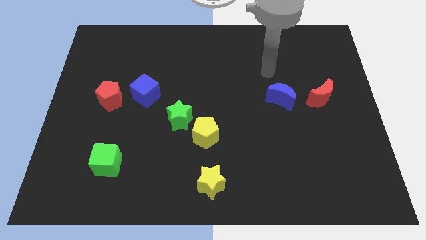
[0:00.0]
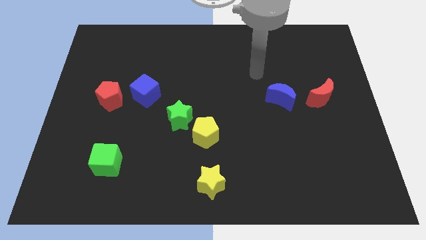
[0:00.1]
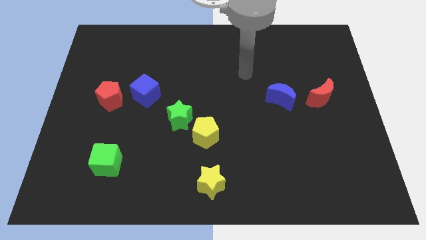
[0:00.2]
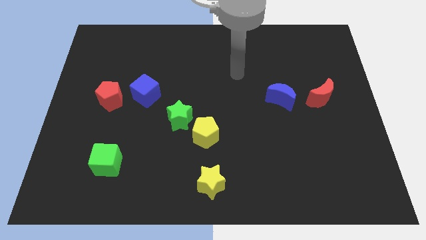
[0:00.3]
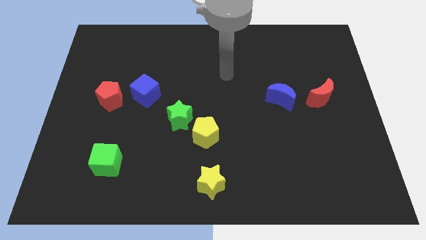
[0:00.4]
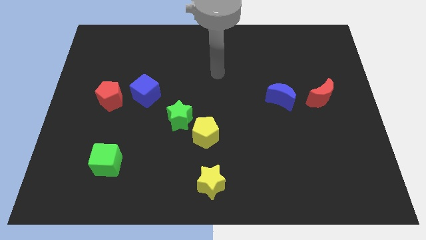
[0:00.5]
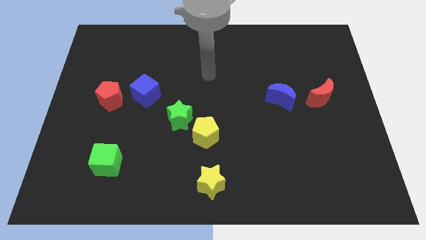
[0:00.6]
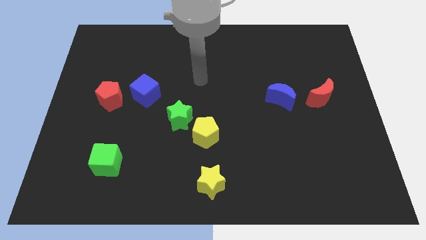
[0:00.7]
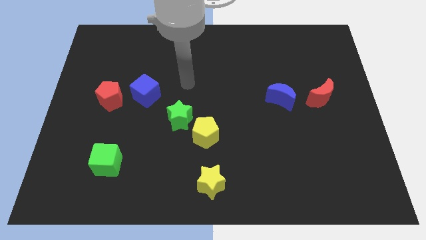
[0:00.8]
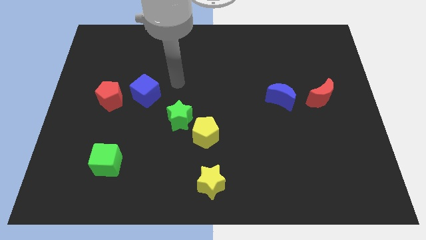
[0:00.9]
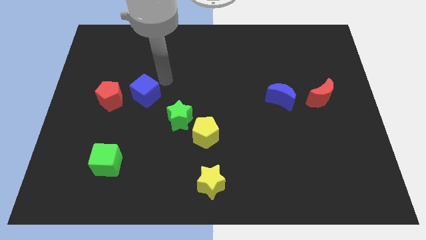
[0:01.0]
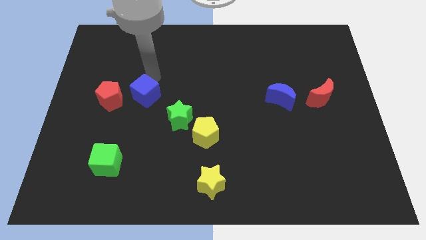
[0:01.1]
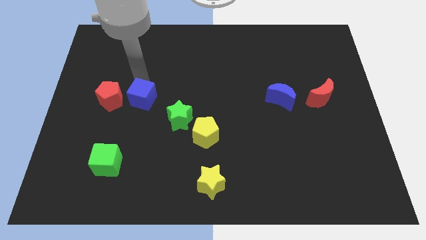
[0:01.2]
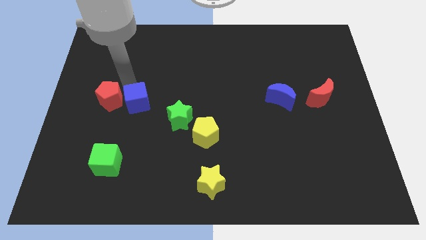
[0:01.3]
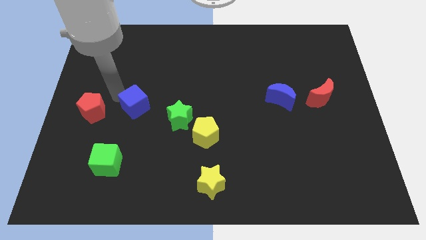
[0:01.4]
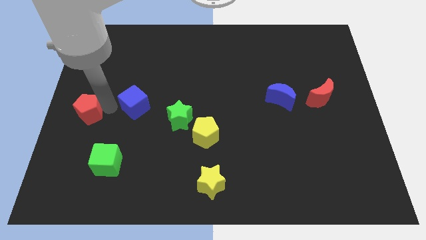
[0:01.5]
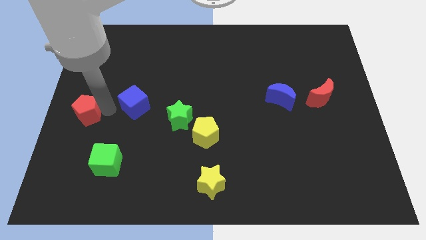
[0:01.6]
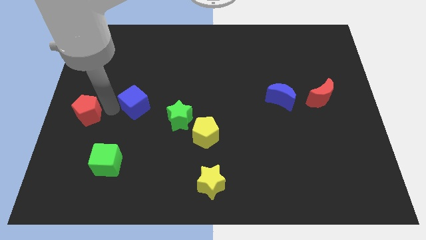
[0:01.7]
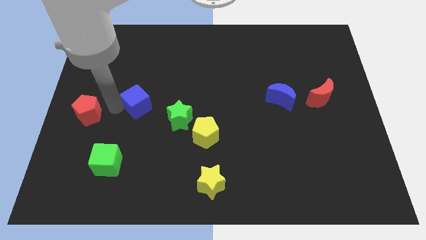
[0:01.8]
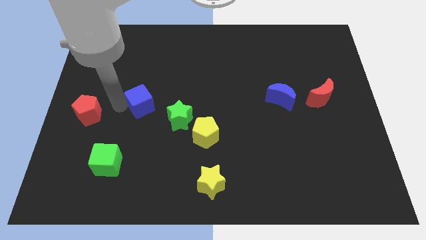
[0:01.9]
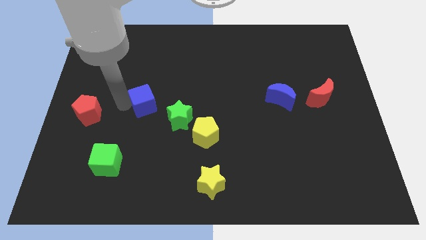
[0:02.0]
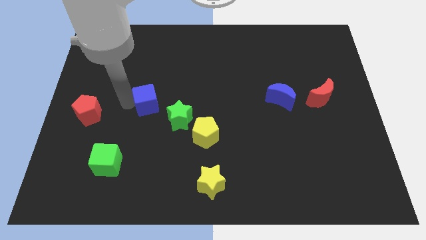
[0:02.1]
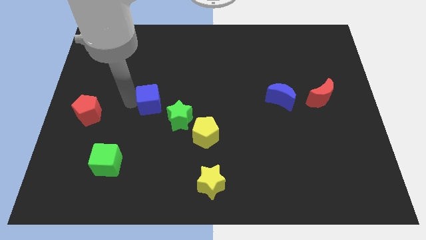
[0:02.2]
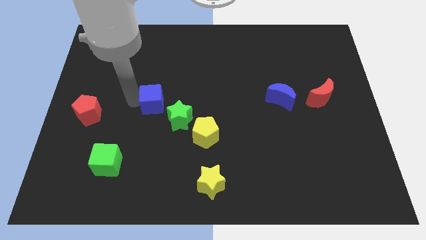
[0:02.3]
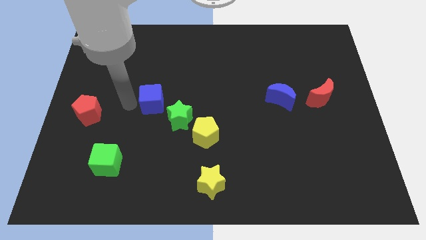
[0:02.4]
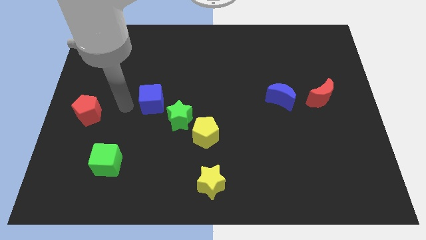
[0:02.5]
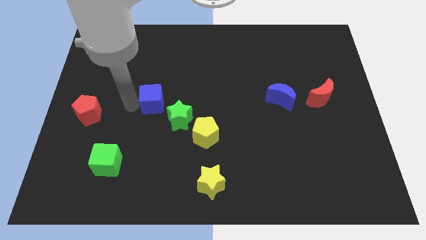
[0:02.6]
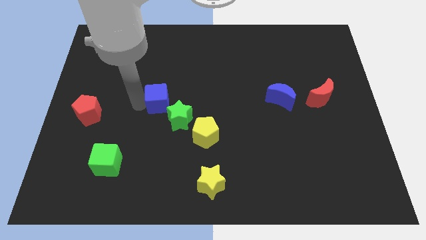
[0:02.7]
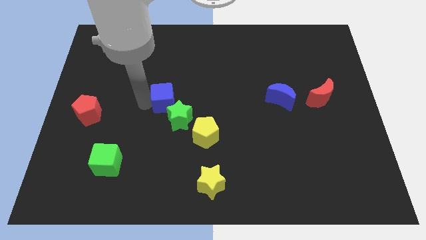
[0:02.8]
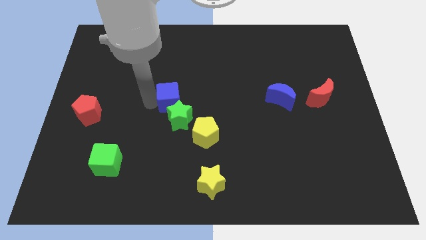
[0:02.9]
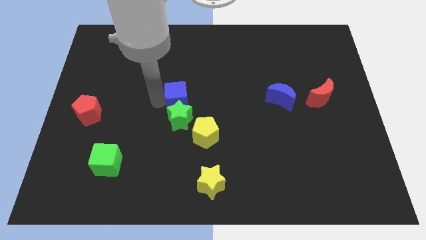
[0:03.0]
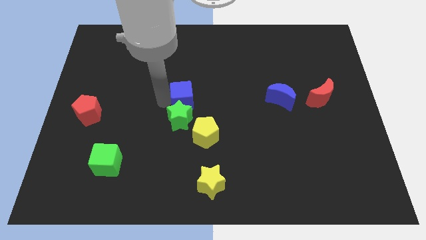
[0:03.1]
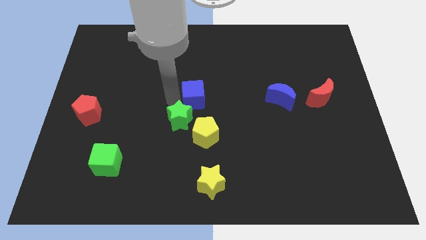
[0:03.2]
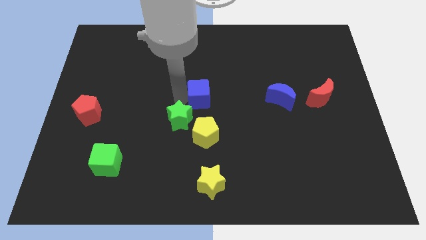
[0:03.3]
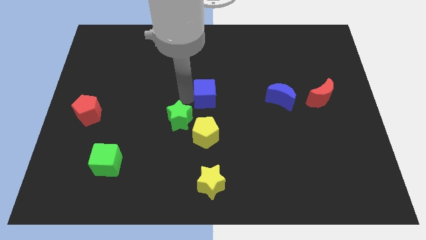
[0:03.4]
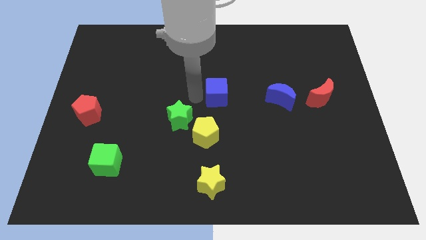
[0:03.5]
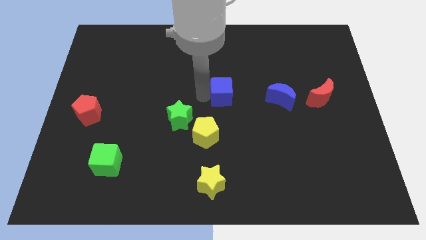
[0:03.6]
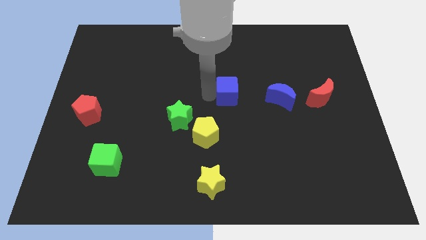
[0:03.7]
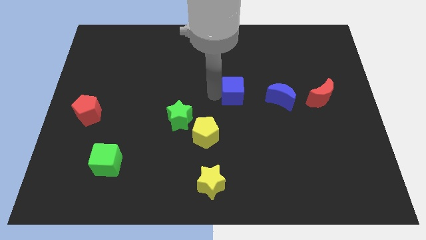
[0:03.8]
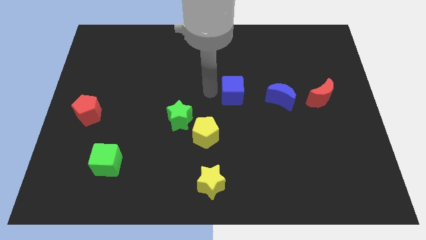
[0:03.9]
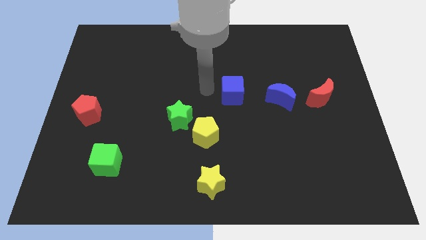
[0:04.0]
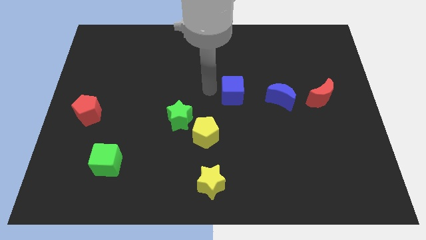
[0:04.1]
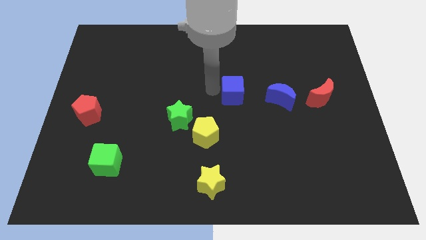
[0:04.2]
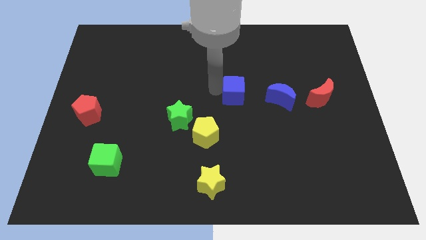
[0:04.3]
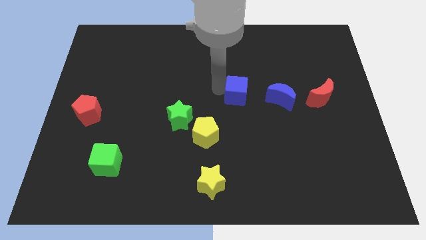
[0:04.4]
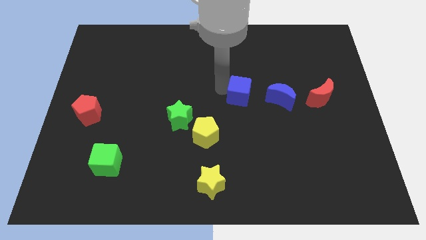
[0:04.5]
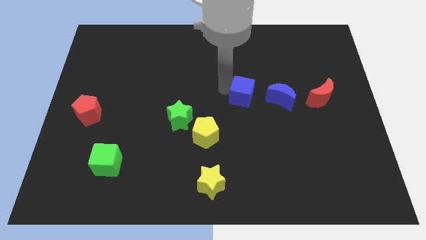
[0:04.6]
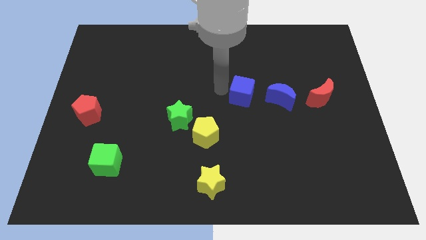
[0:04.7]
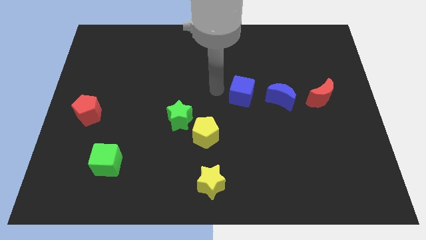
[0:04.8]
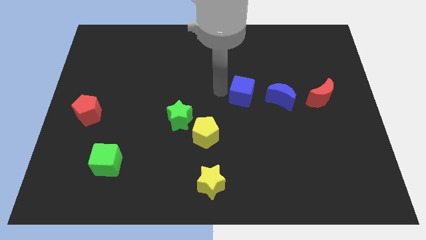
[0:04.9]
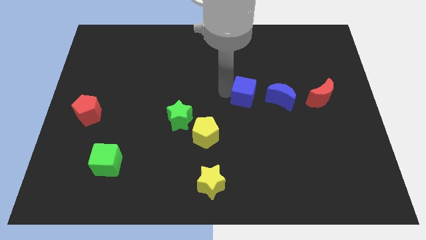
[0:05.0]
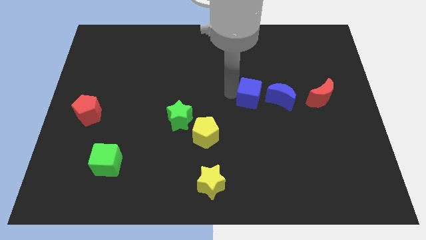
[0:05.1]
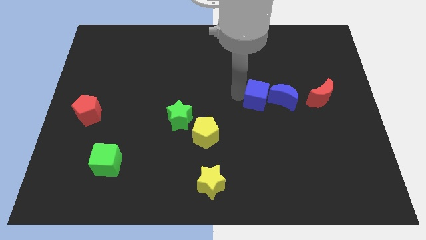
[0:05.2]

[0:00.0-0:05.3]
put the blue cube to the left side of the red moon
